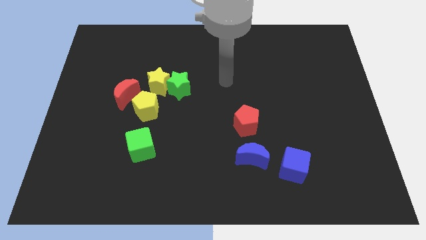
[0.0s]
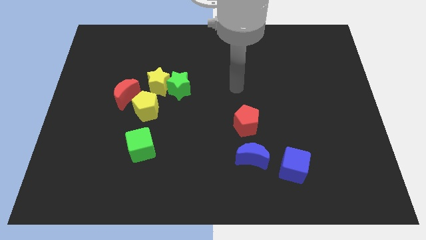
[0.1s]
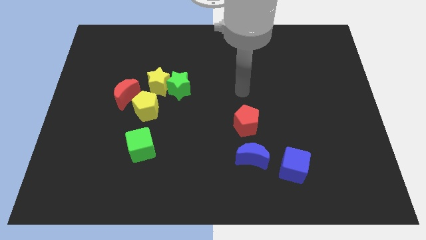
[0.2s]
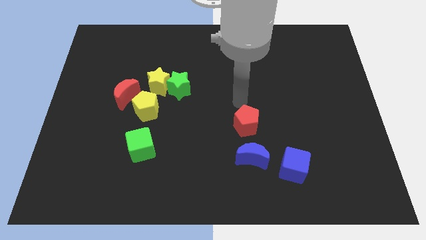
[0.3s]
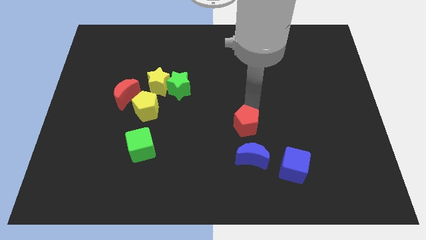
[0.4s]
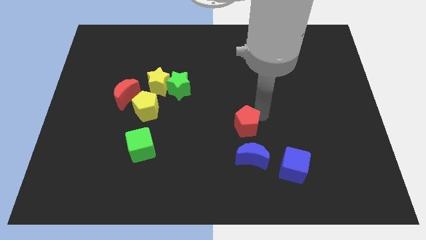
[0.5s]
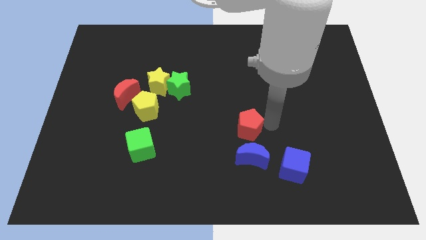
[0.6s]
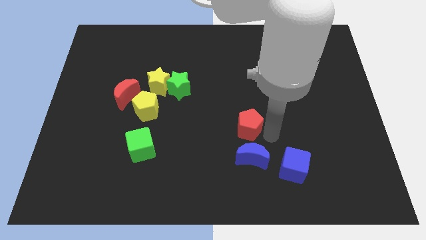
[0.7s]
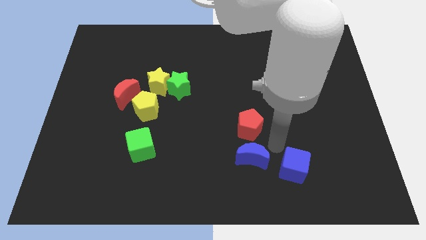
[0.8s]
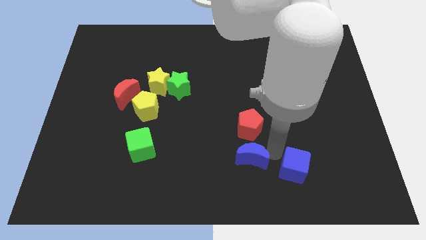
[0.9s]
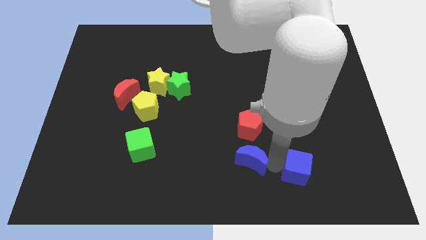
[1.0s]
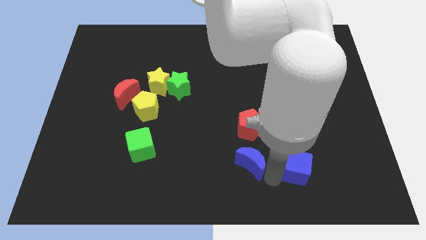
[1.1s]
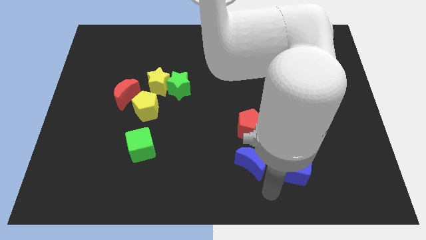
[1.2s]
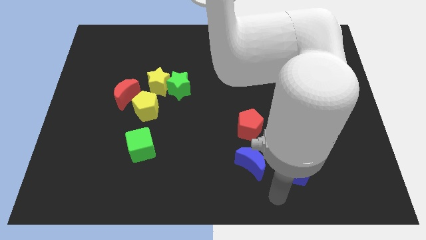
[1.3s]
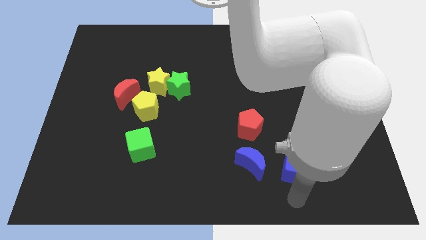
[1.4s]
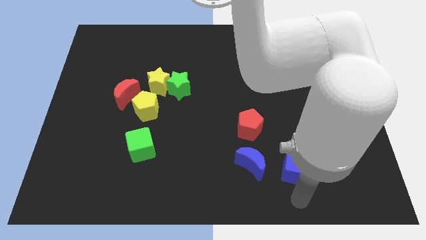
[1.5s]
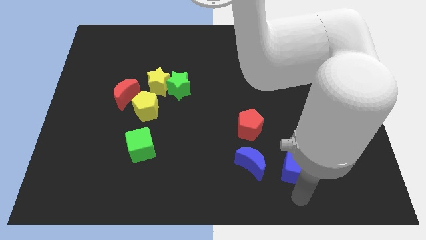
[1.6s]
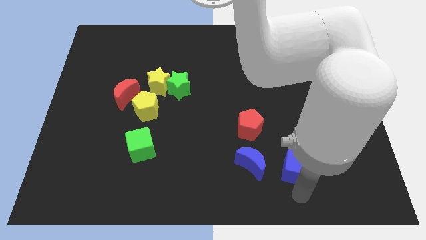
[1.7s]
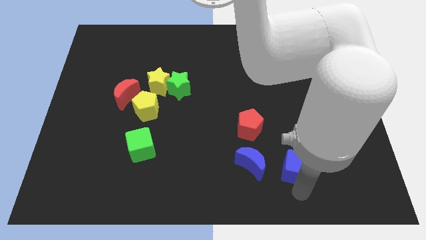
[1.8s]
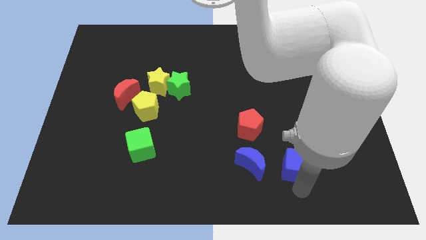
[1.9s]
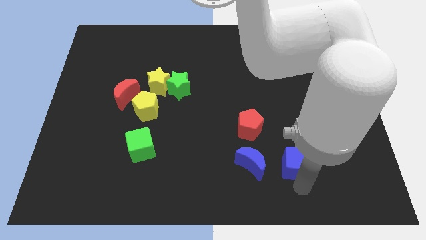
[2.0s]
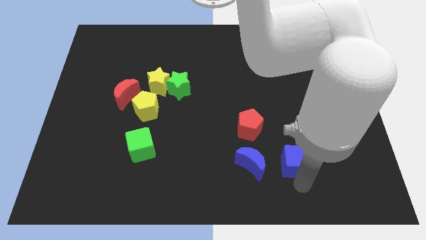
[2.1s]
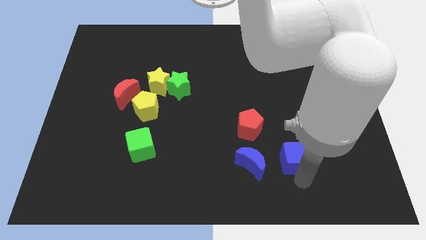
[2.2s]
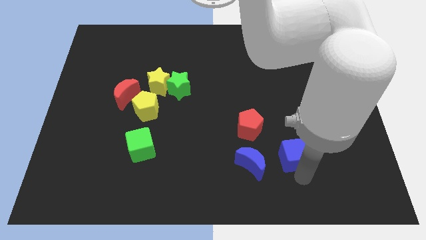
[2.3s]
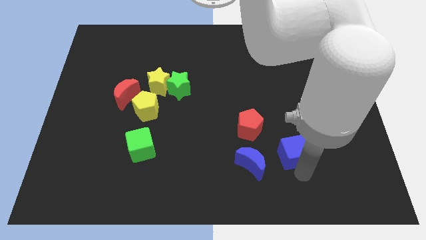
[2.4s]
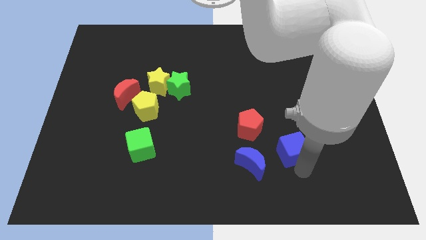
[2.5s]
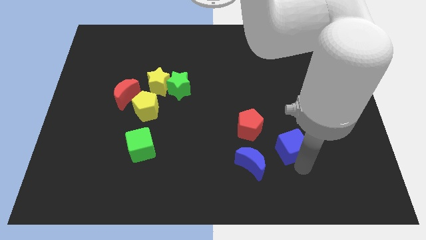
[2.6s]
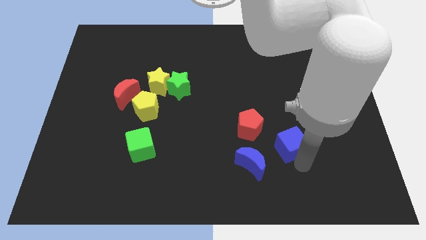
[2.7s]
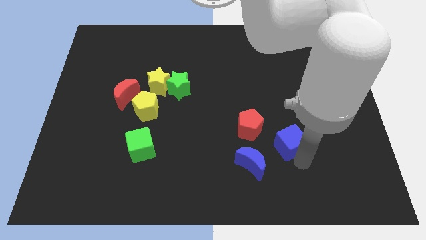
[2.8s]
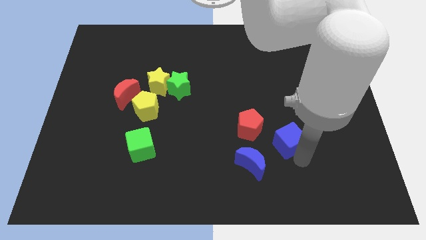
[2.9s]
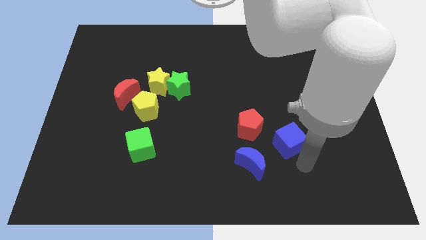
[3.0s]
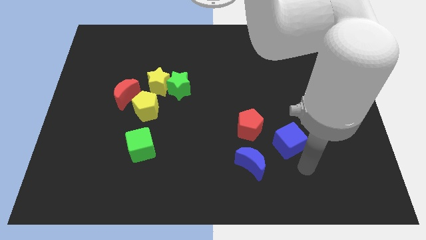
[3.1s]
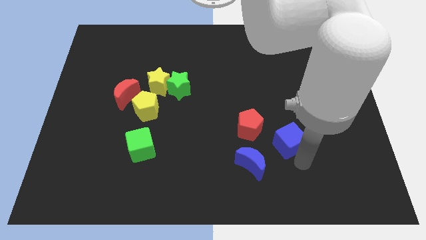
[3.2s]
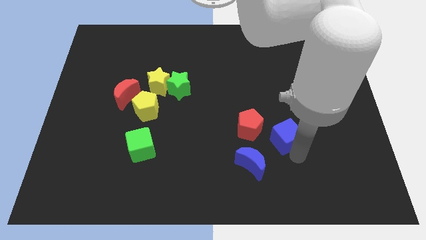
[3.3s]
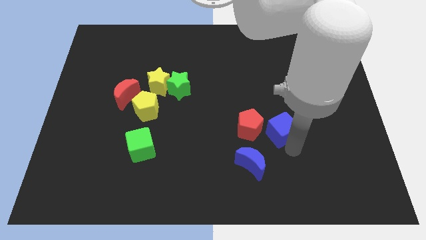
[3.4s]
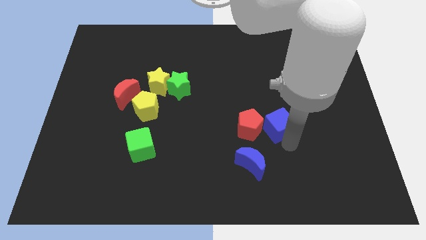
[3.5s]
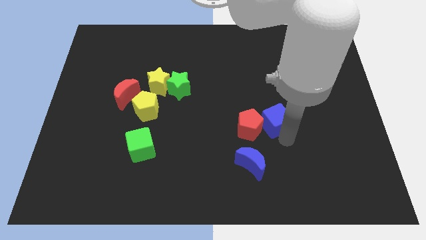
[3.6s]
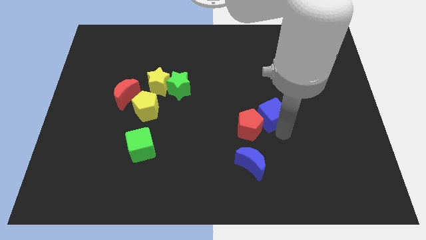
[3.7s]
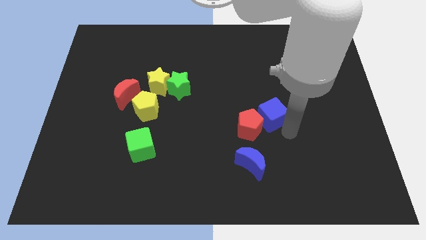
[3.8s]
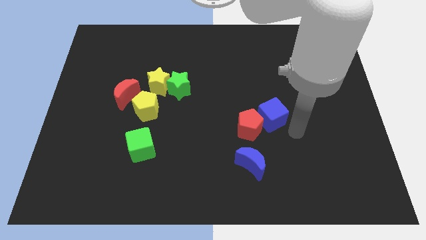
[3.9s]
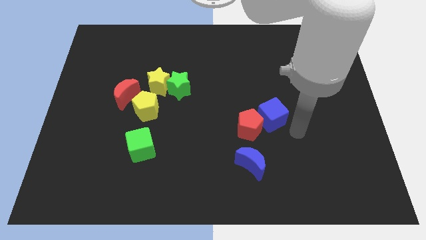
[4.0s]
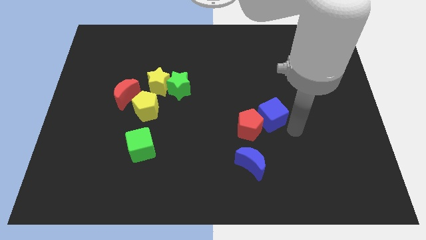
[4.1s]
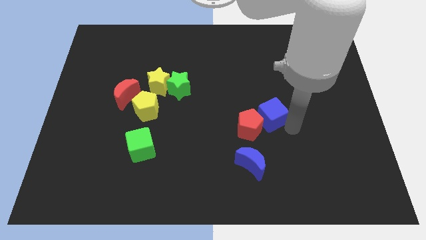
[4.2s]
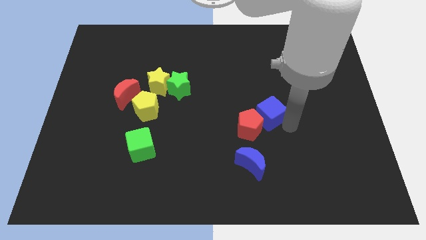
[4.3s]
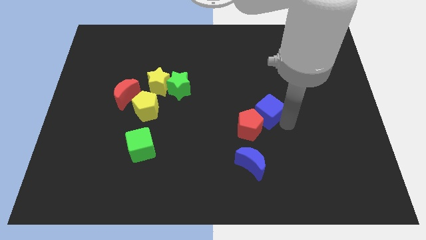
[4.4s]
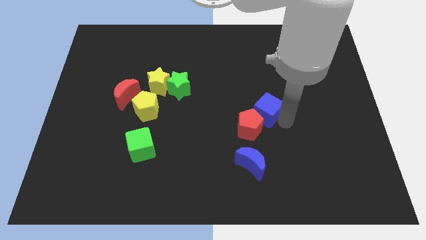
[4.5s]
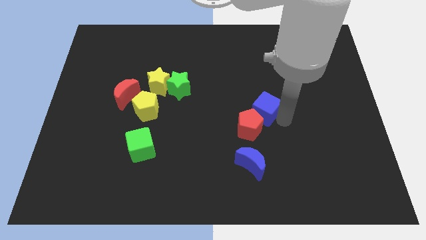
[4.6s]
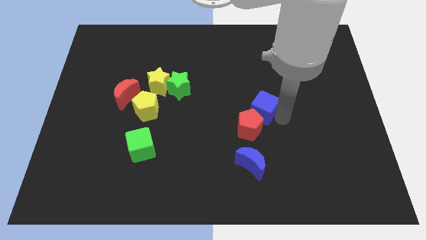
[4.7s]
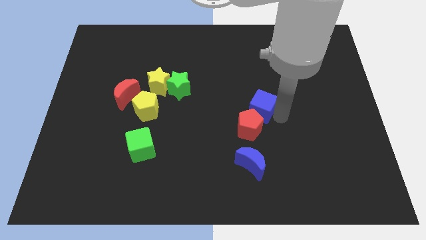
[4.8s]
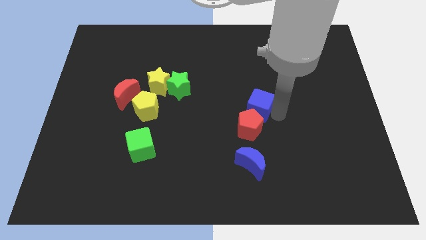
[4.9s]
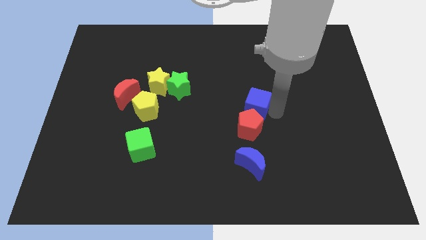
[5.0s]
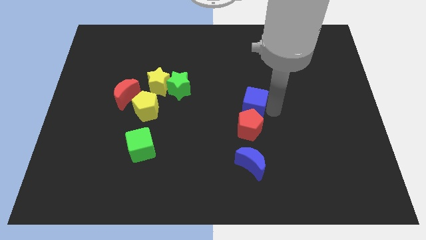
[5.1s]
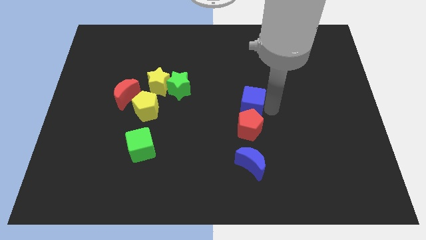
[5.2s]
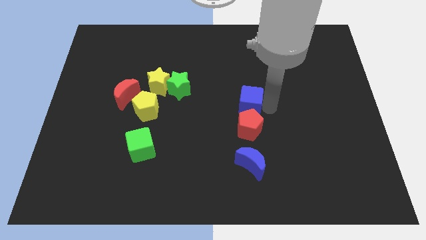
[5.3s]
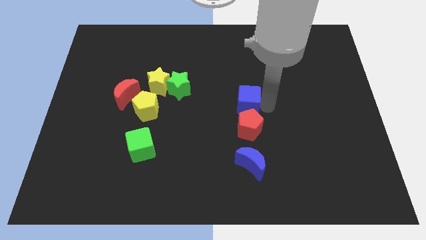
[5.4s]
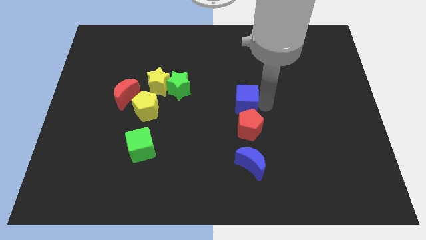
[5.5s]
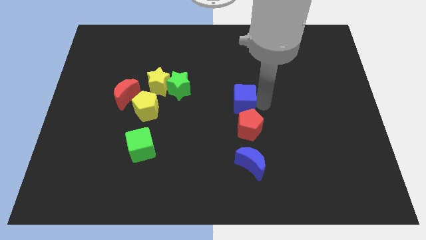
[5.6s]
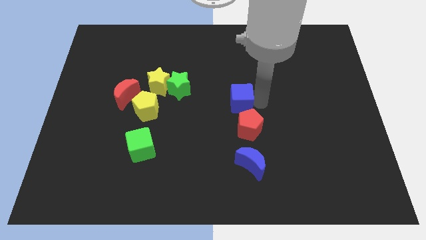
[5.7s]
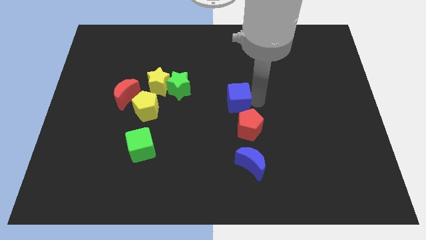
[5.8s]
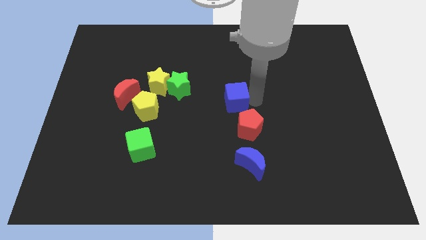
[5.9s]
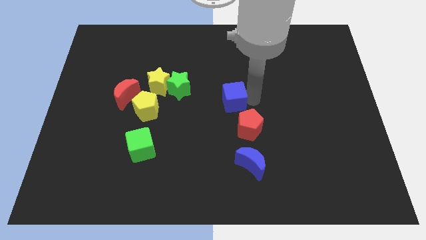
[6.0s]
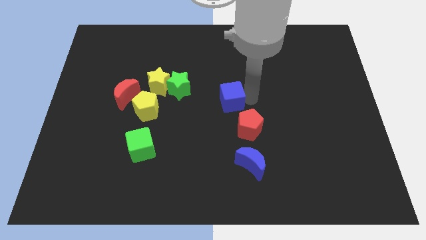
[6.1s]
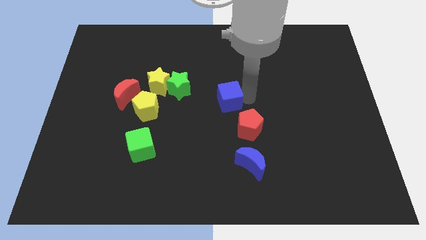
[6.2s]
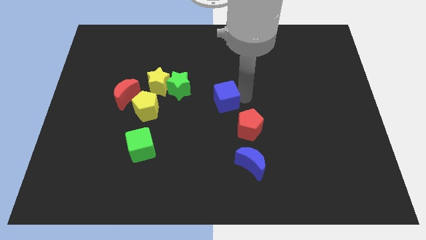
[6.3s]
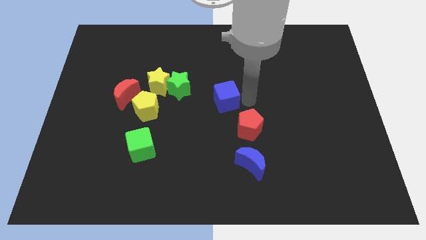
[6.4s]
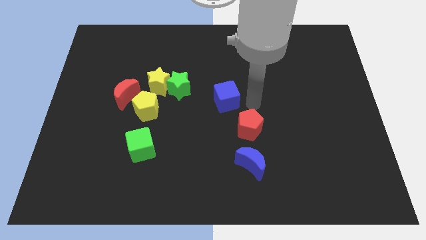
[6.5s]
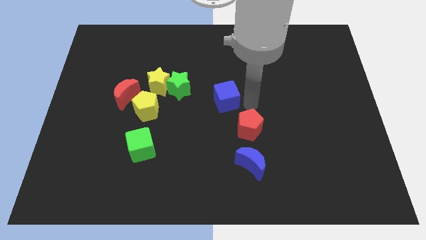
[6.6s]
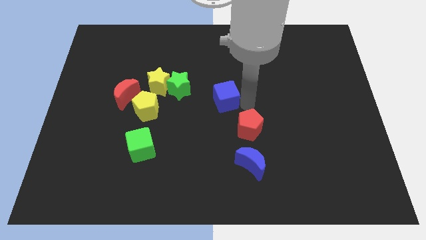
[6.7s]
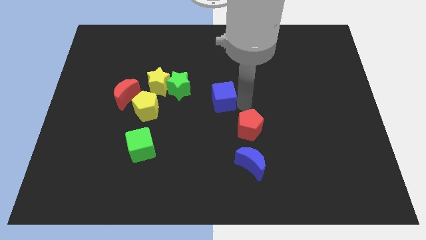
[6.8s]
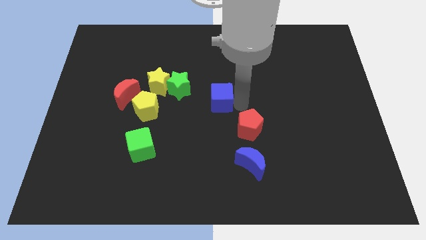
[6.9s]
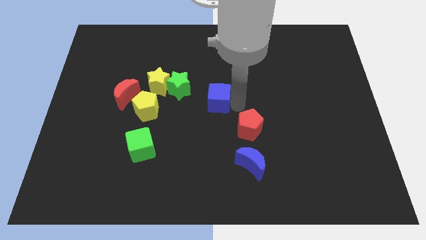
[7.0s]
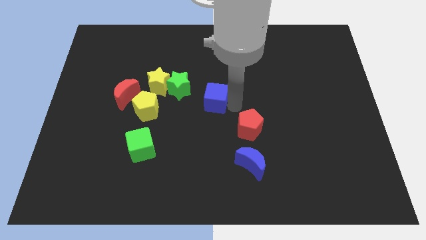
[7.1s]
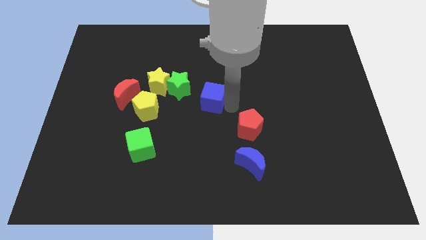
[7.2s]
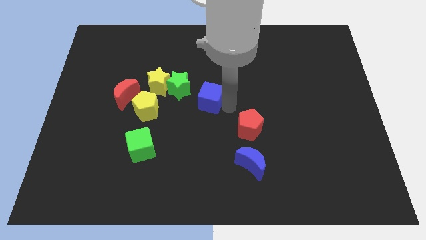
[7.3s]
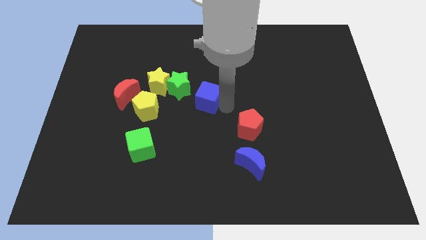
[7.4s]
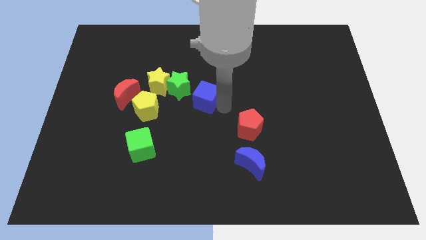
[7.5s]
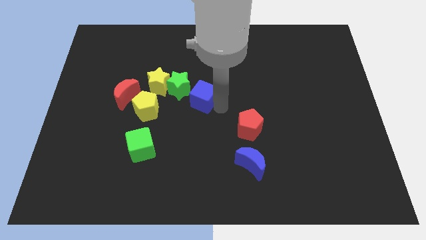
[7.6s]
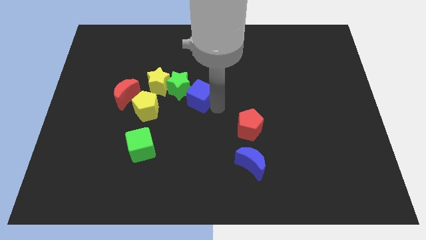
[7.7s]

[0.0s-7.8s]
push the blue cube next to the green star
